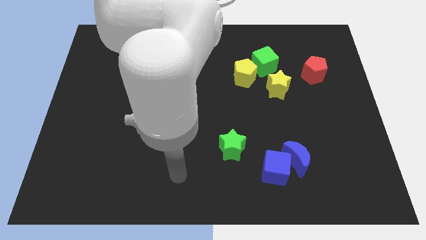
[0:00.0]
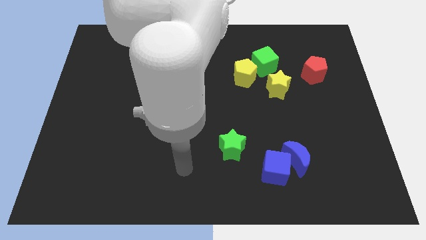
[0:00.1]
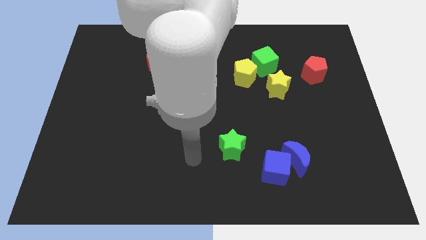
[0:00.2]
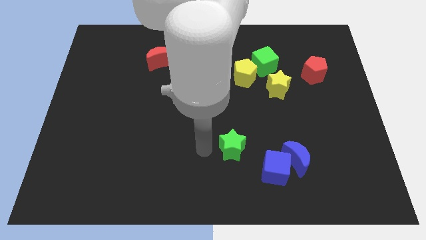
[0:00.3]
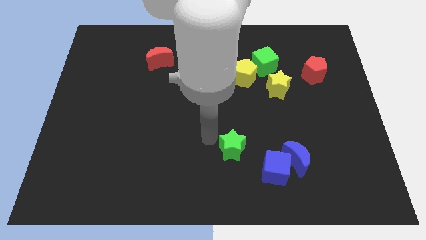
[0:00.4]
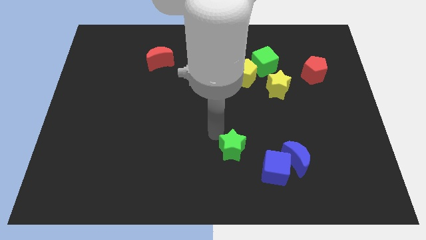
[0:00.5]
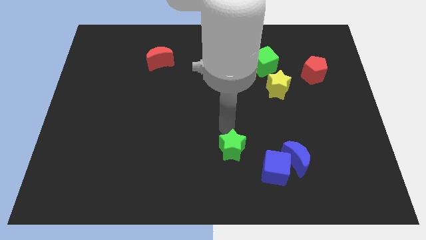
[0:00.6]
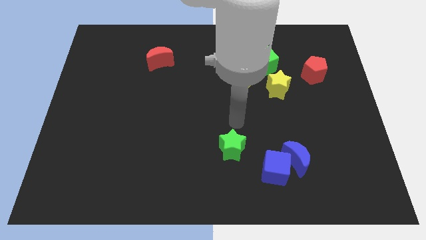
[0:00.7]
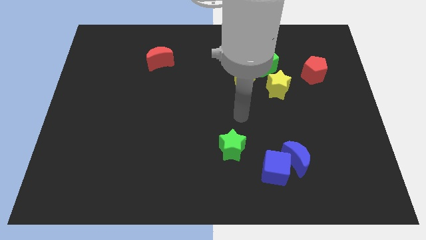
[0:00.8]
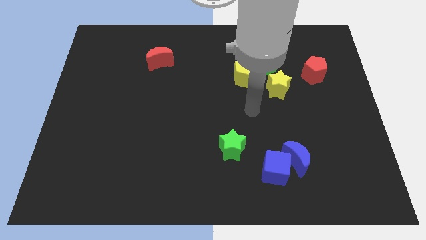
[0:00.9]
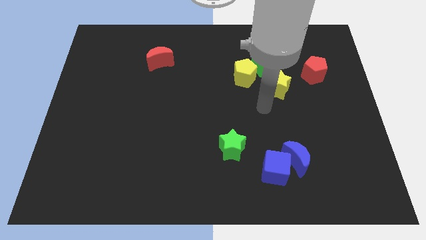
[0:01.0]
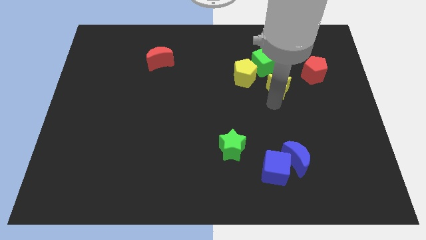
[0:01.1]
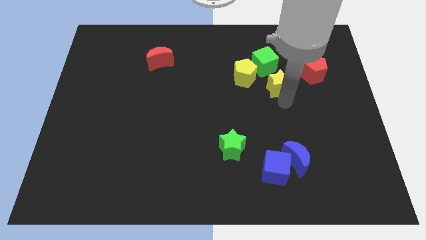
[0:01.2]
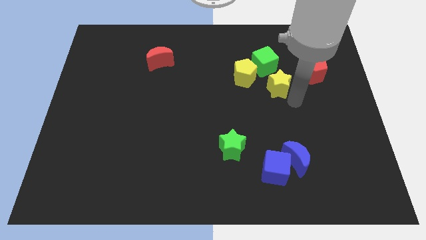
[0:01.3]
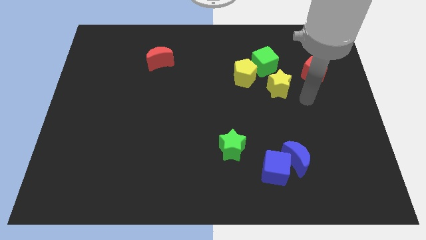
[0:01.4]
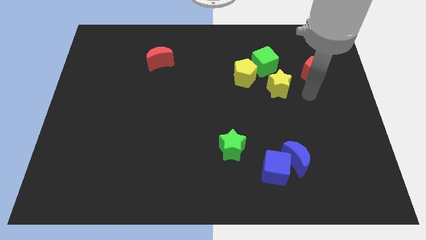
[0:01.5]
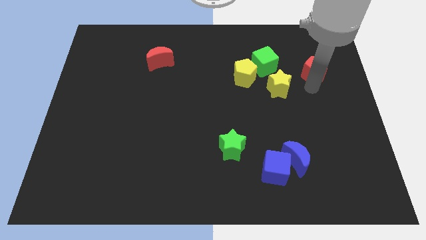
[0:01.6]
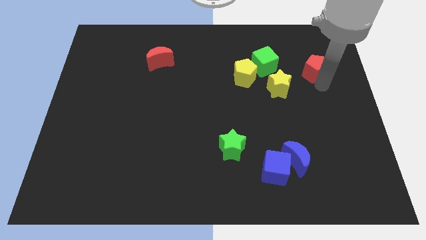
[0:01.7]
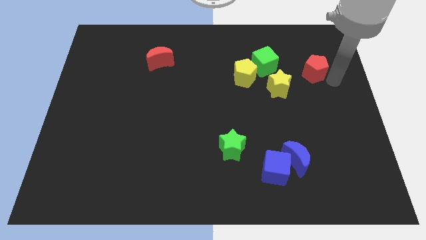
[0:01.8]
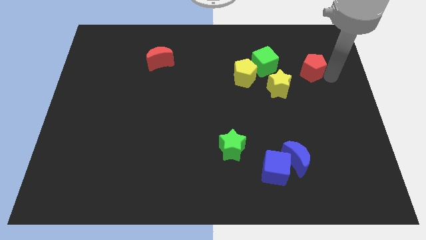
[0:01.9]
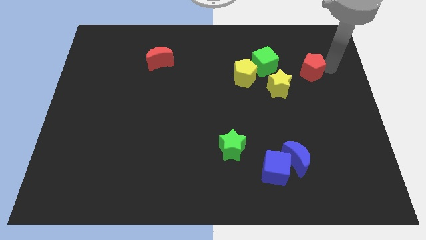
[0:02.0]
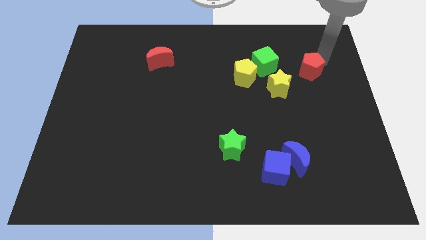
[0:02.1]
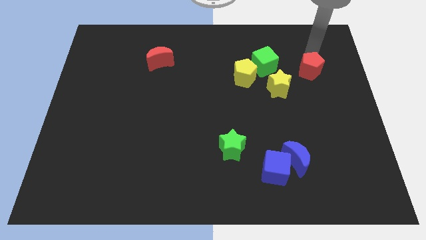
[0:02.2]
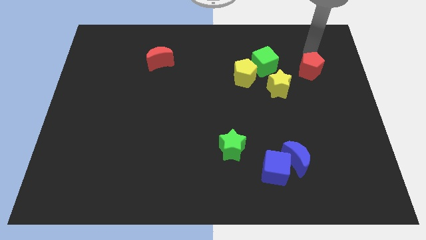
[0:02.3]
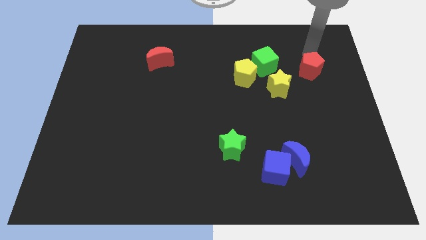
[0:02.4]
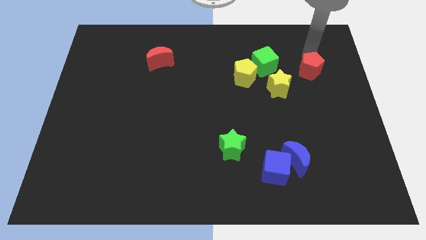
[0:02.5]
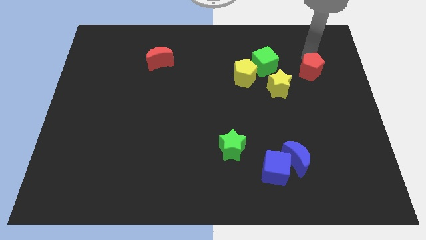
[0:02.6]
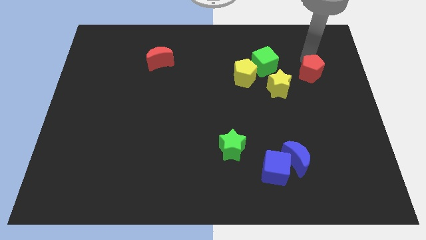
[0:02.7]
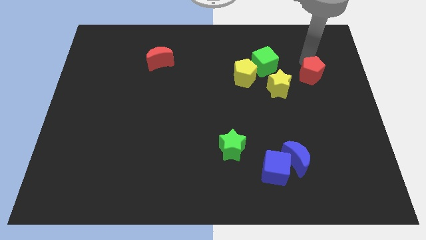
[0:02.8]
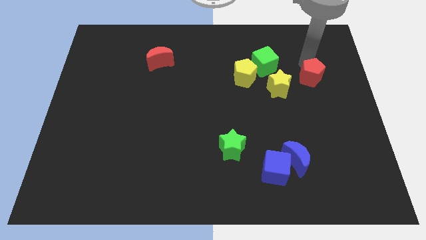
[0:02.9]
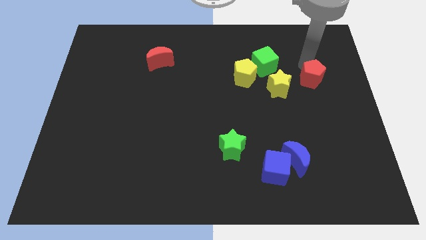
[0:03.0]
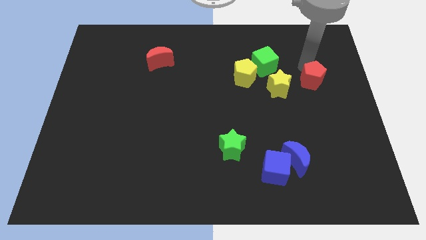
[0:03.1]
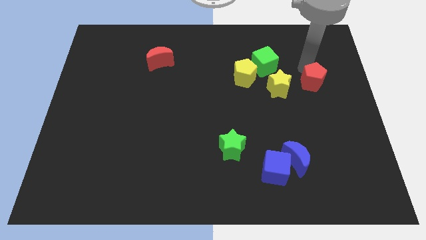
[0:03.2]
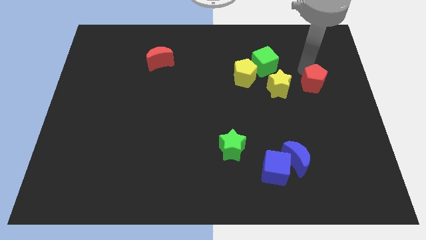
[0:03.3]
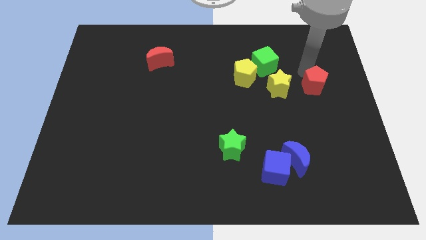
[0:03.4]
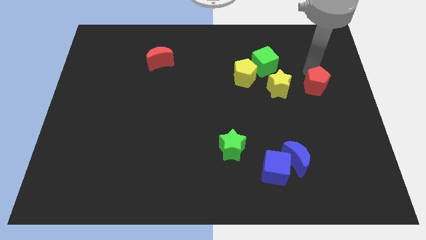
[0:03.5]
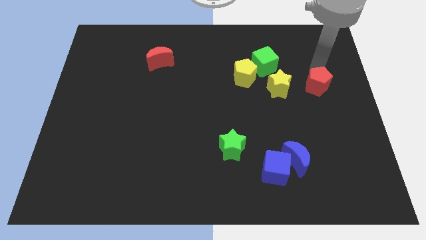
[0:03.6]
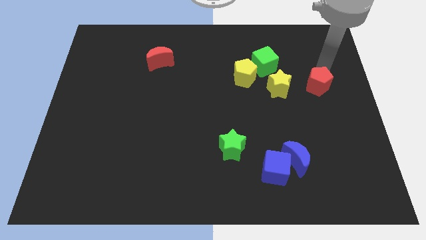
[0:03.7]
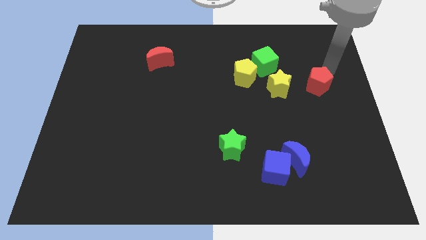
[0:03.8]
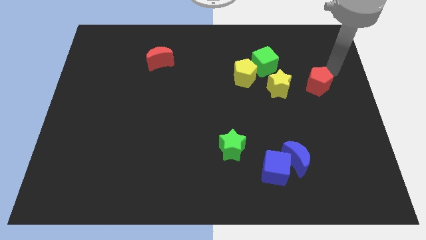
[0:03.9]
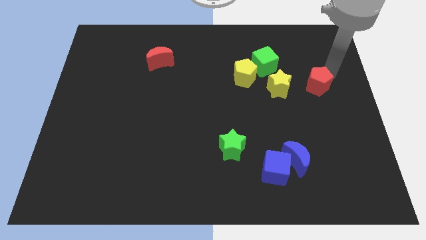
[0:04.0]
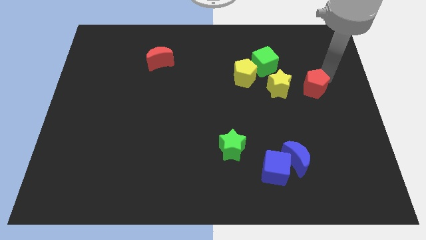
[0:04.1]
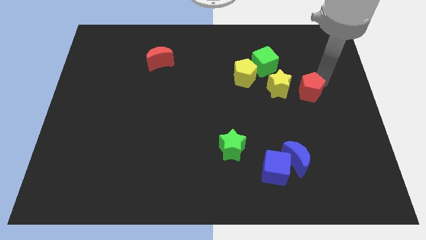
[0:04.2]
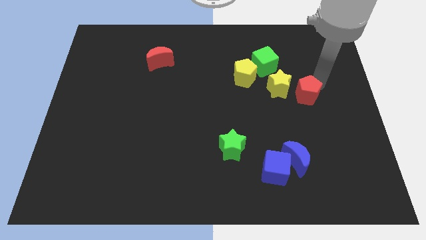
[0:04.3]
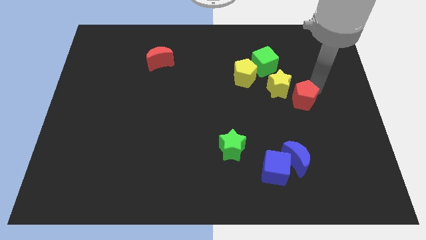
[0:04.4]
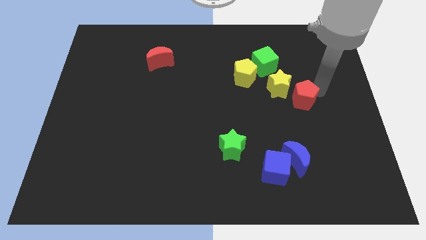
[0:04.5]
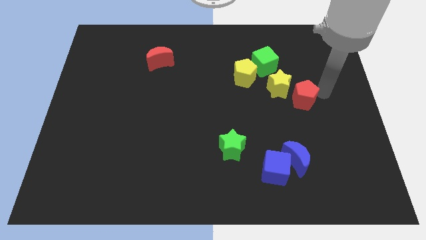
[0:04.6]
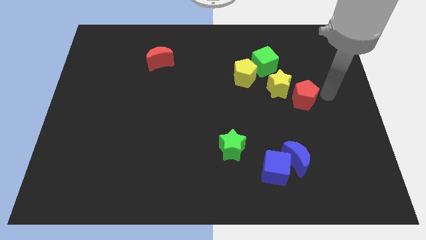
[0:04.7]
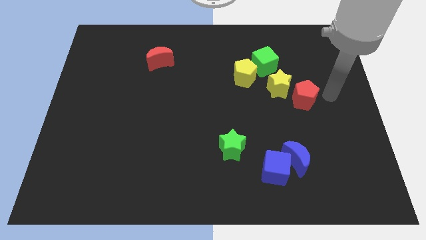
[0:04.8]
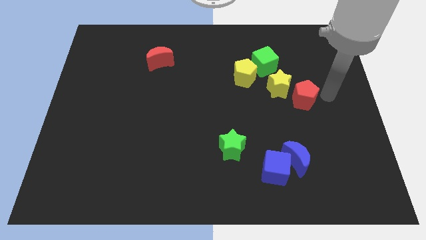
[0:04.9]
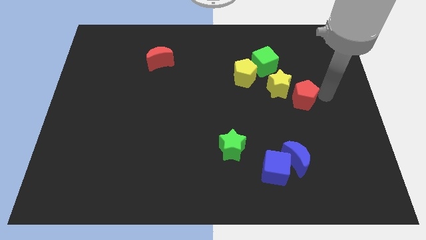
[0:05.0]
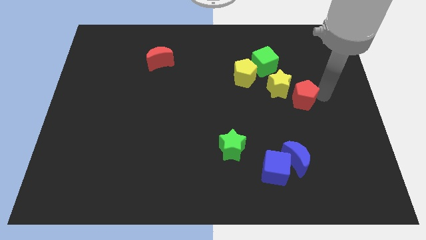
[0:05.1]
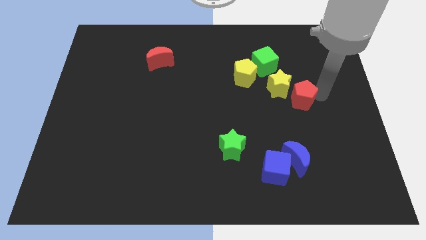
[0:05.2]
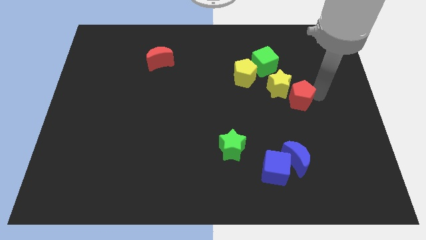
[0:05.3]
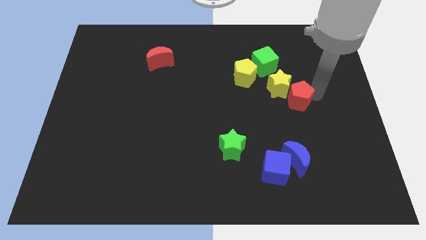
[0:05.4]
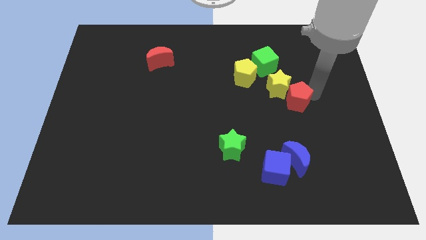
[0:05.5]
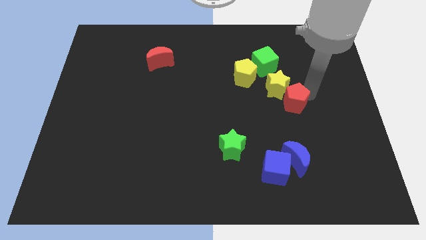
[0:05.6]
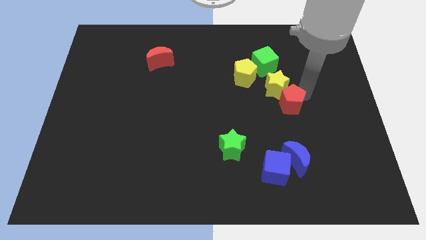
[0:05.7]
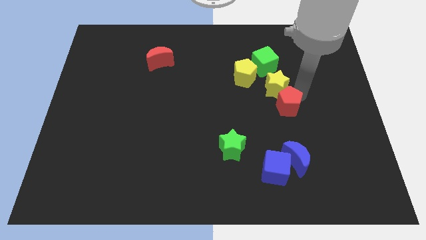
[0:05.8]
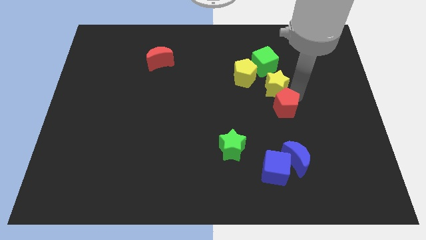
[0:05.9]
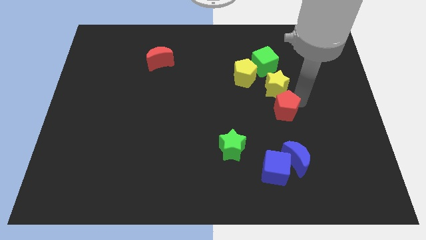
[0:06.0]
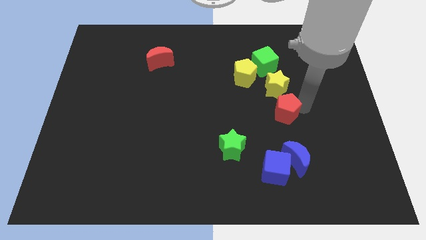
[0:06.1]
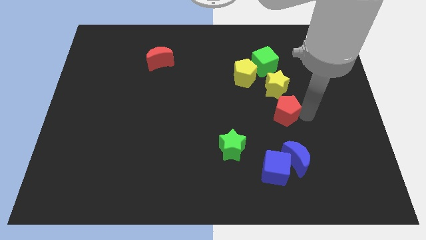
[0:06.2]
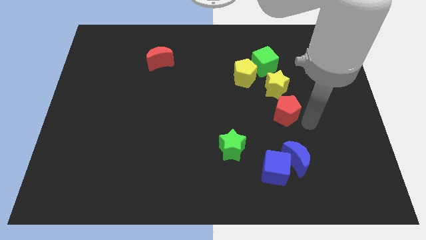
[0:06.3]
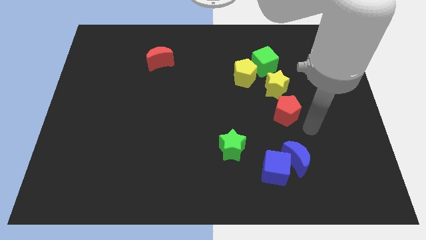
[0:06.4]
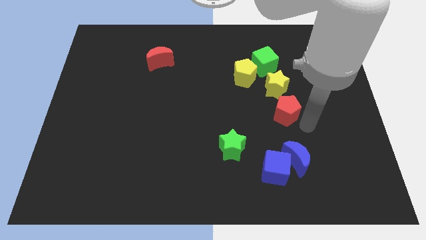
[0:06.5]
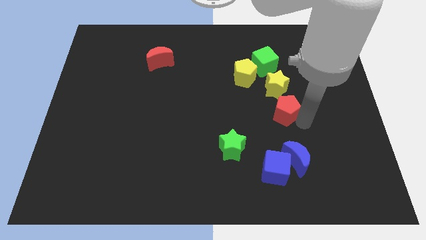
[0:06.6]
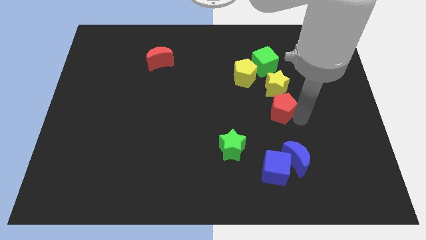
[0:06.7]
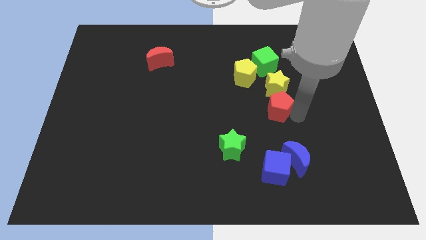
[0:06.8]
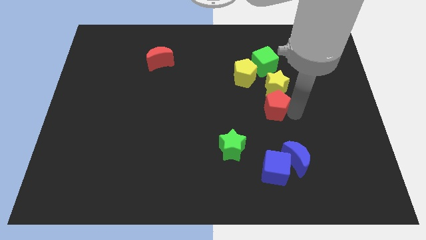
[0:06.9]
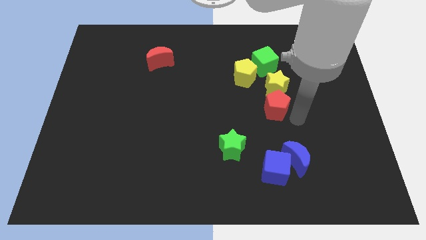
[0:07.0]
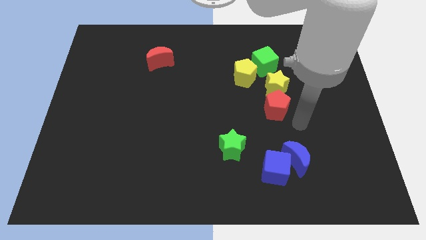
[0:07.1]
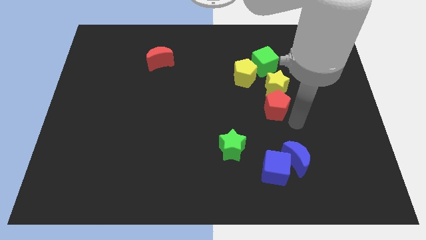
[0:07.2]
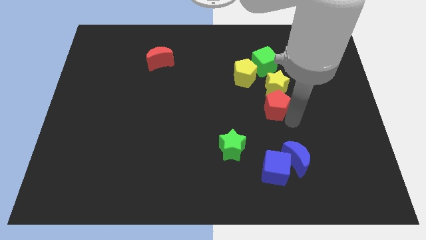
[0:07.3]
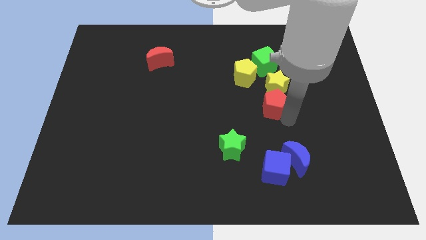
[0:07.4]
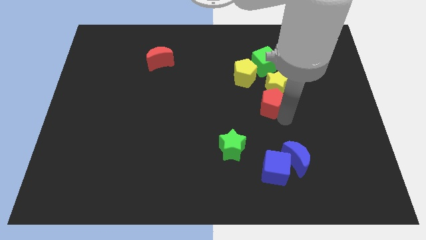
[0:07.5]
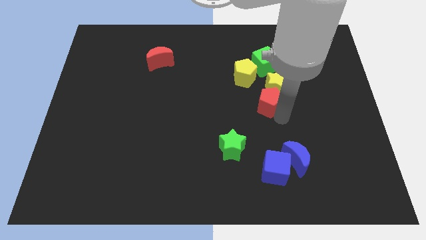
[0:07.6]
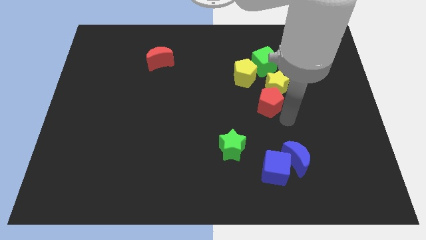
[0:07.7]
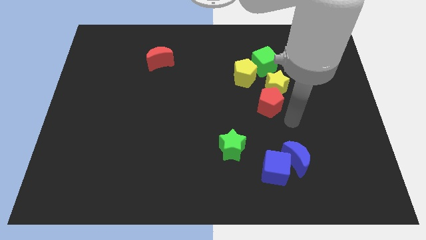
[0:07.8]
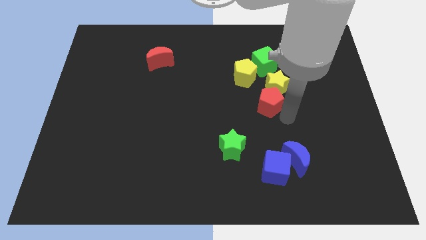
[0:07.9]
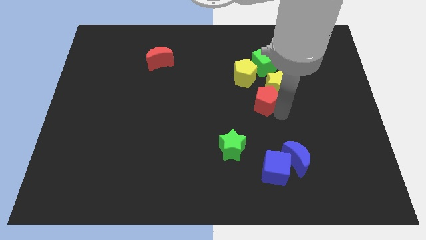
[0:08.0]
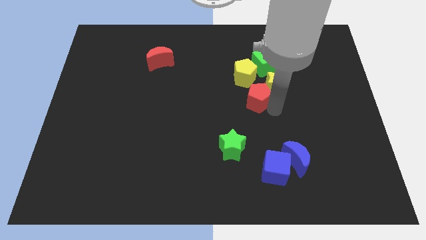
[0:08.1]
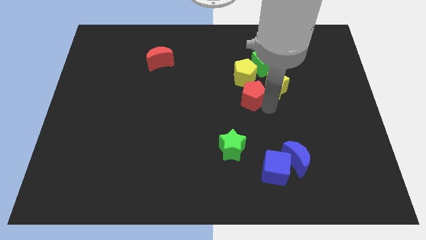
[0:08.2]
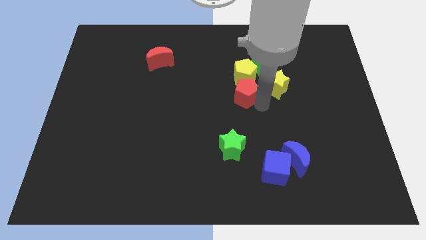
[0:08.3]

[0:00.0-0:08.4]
slide the red pentagon diagonally down and to the left of the green cube
